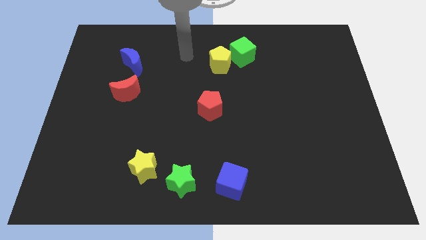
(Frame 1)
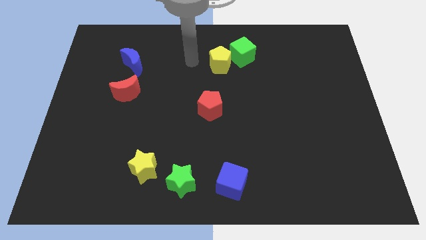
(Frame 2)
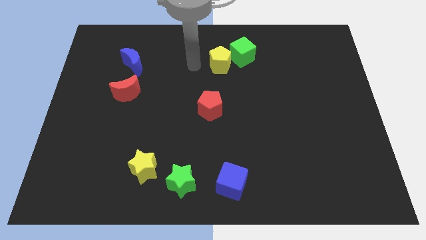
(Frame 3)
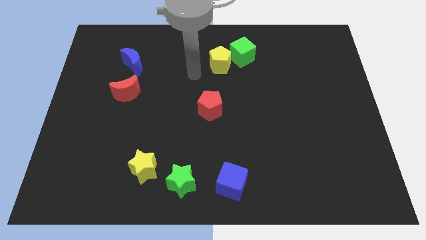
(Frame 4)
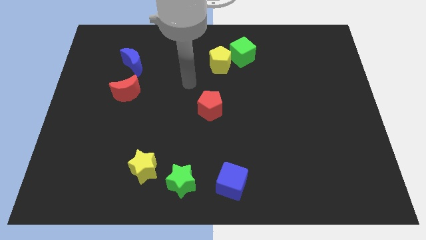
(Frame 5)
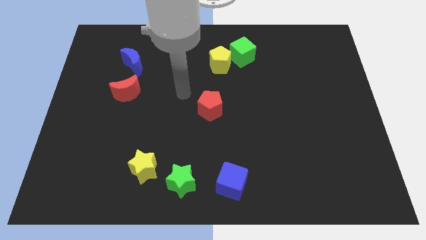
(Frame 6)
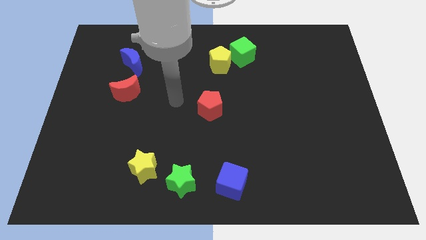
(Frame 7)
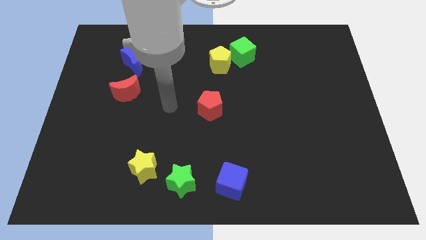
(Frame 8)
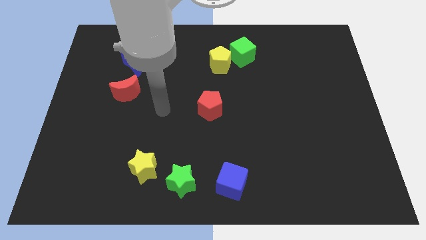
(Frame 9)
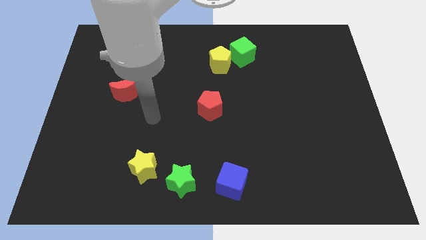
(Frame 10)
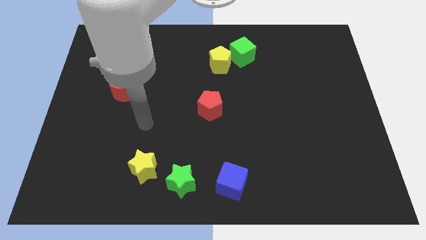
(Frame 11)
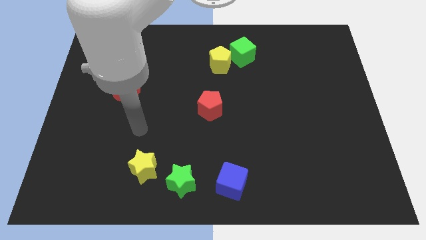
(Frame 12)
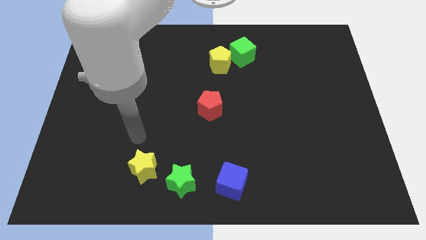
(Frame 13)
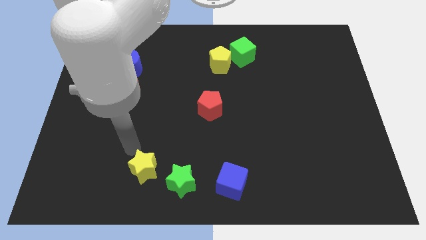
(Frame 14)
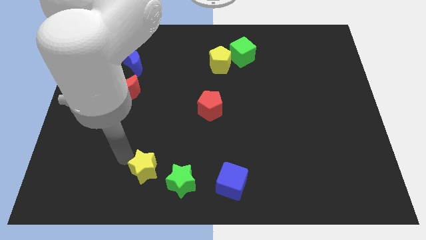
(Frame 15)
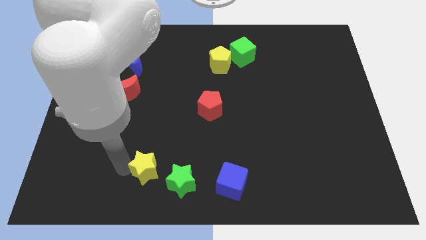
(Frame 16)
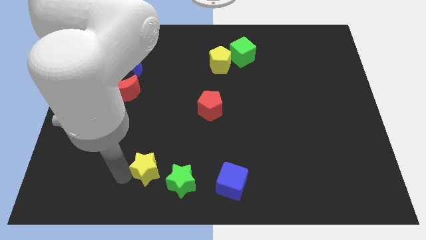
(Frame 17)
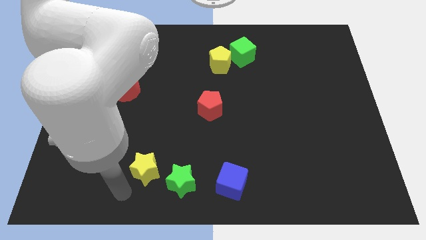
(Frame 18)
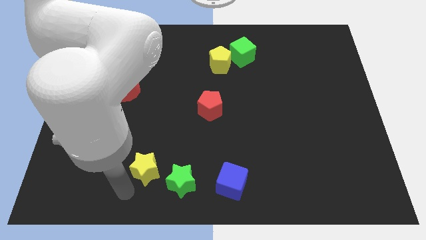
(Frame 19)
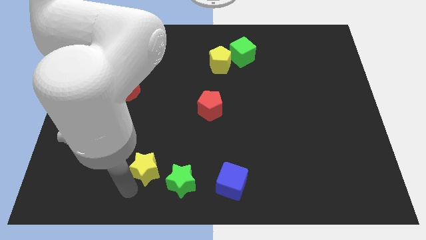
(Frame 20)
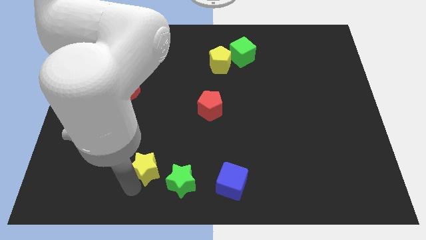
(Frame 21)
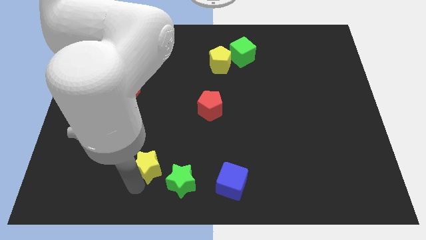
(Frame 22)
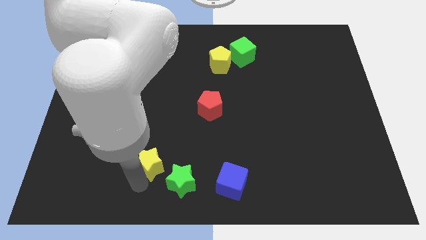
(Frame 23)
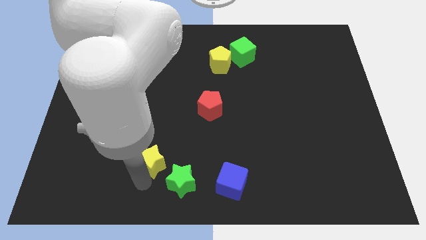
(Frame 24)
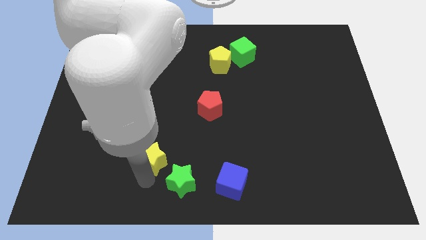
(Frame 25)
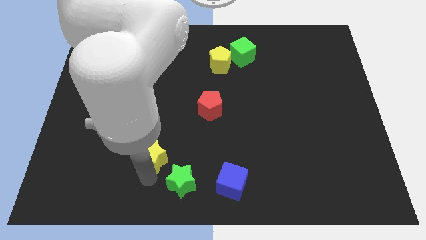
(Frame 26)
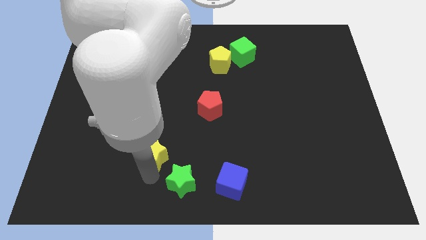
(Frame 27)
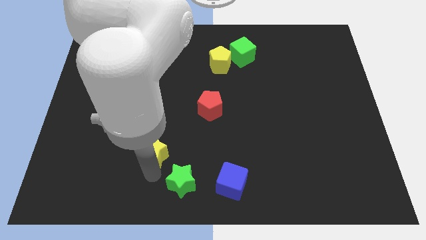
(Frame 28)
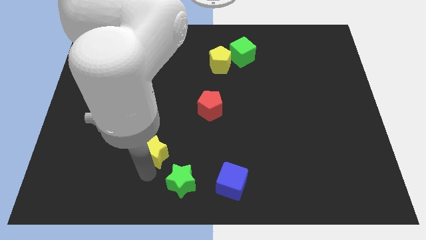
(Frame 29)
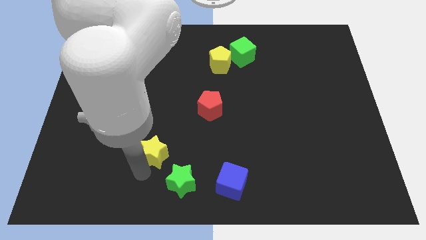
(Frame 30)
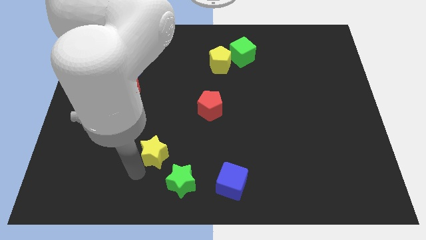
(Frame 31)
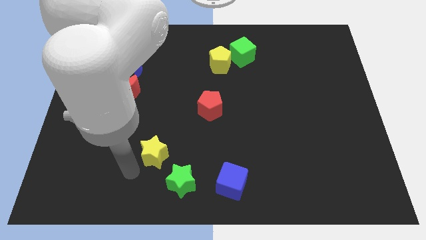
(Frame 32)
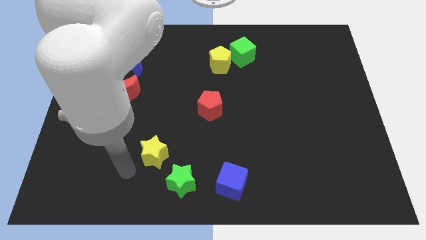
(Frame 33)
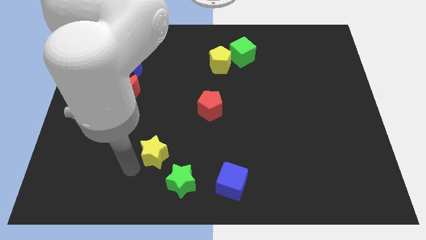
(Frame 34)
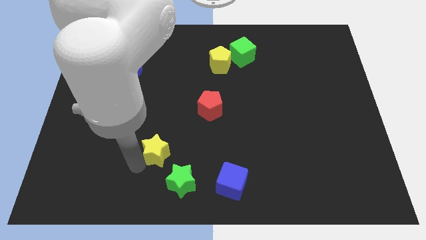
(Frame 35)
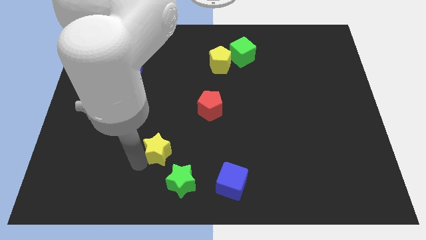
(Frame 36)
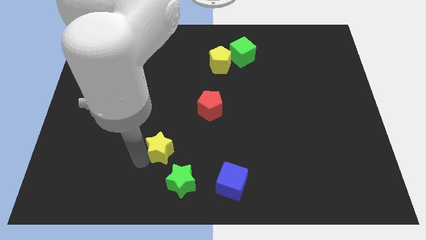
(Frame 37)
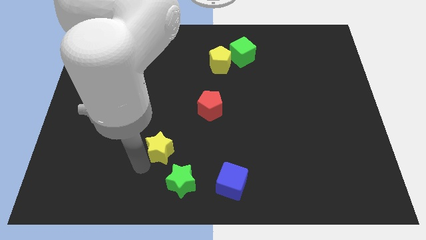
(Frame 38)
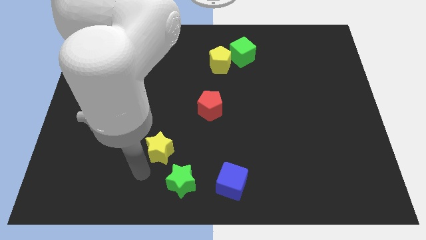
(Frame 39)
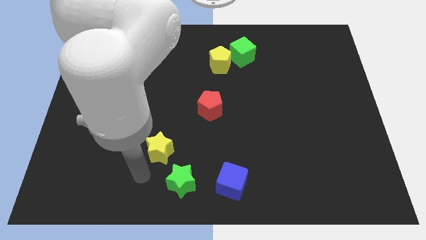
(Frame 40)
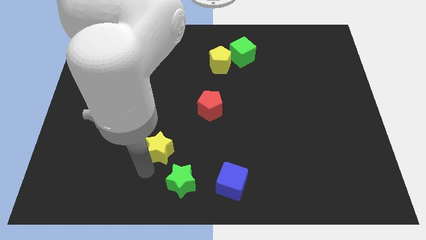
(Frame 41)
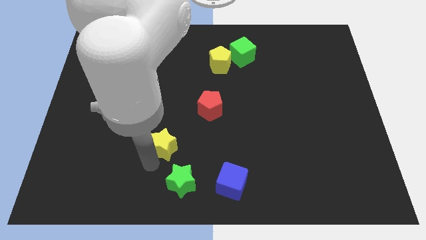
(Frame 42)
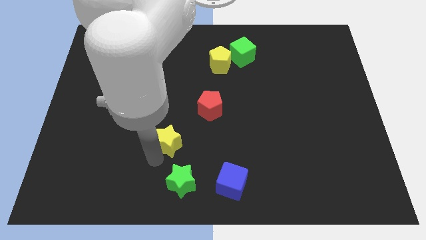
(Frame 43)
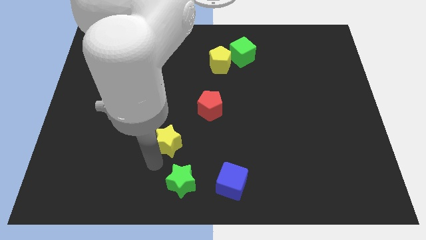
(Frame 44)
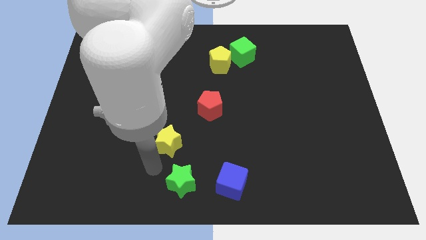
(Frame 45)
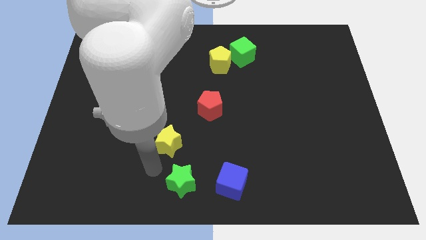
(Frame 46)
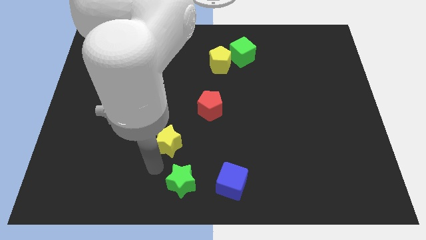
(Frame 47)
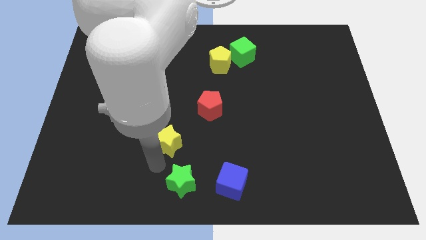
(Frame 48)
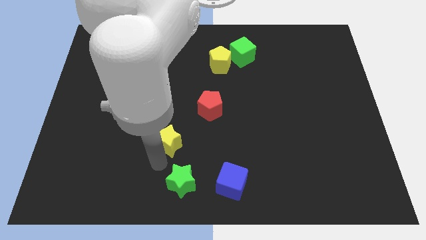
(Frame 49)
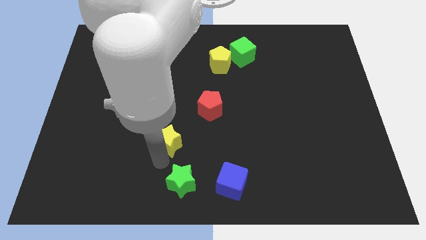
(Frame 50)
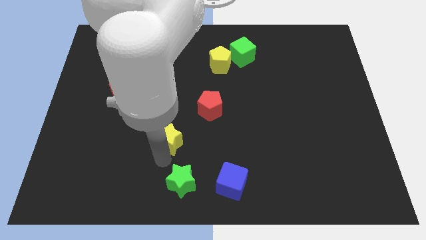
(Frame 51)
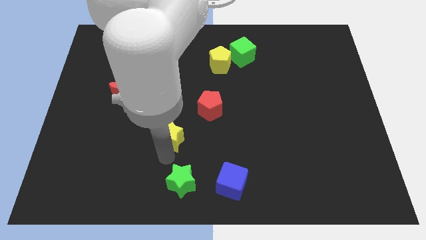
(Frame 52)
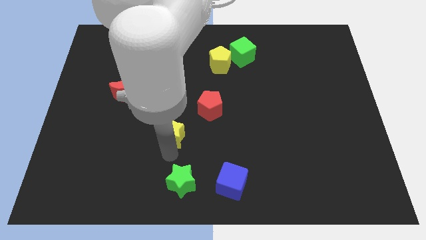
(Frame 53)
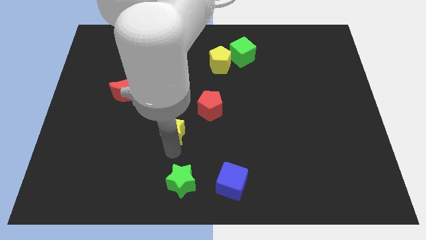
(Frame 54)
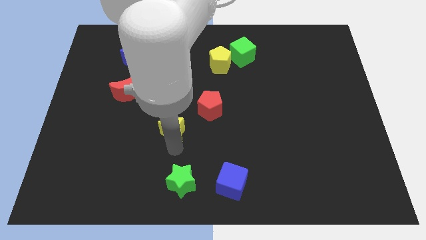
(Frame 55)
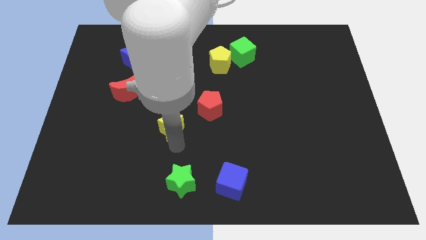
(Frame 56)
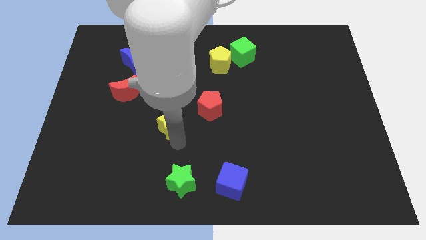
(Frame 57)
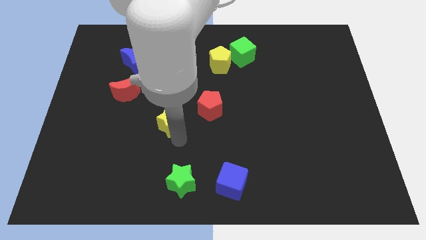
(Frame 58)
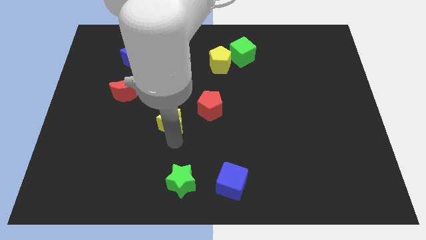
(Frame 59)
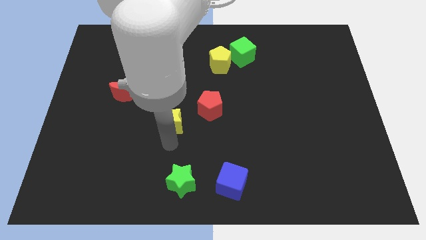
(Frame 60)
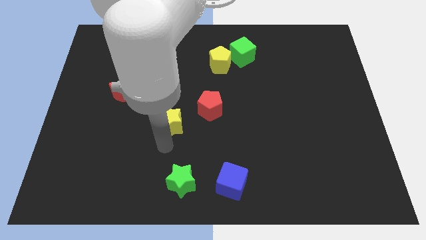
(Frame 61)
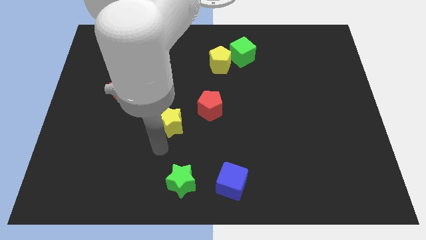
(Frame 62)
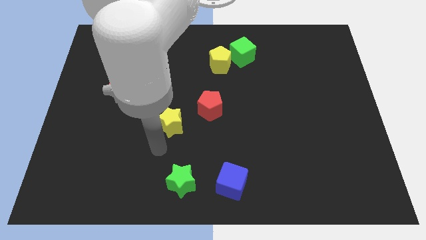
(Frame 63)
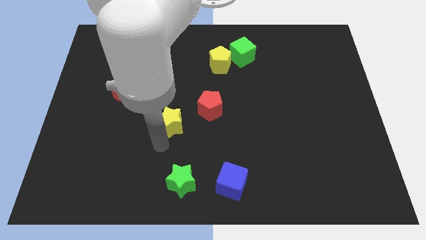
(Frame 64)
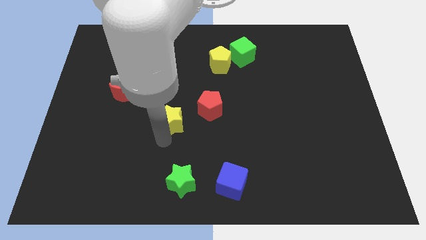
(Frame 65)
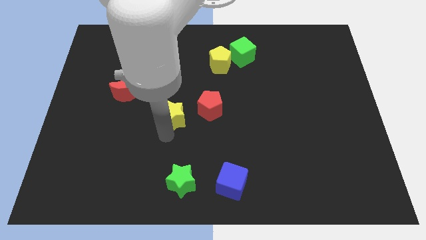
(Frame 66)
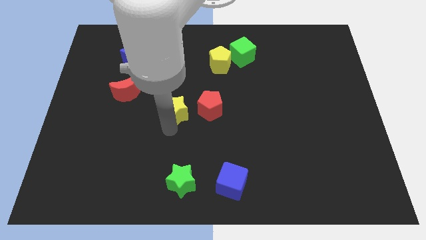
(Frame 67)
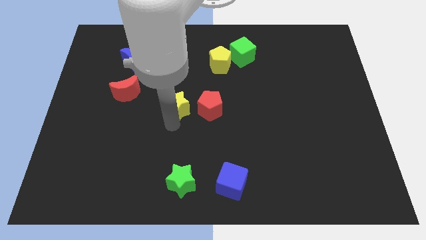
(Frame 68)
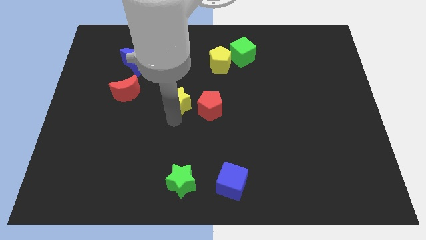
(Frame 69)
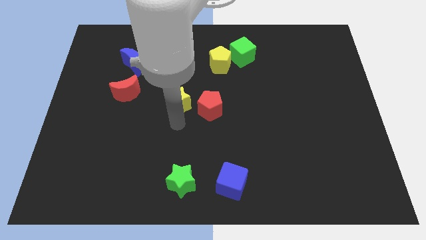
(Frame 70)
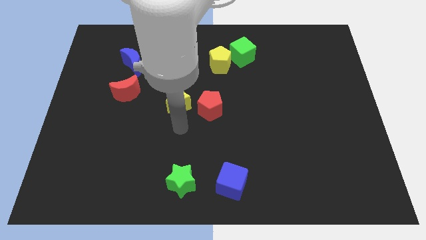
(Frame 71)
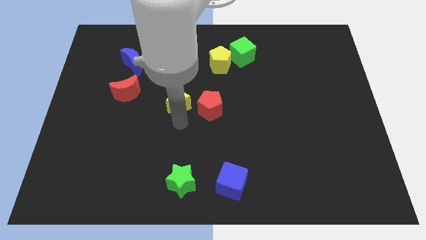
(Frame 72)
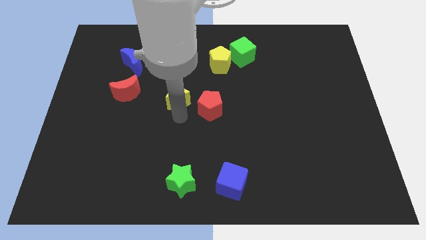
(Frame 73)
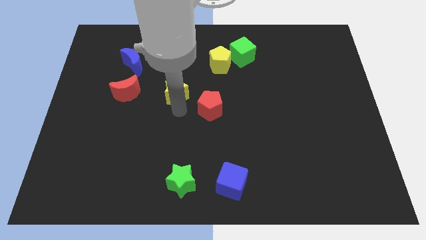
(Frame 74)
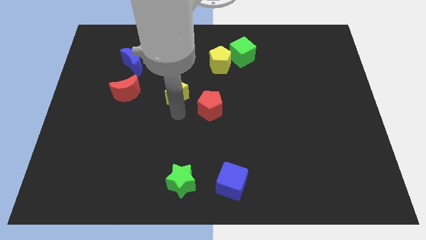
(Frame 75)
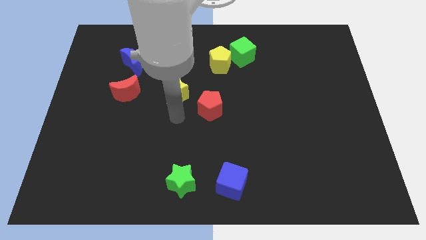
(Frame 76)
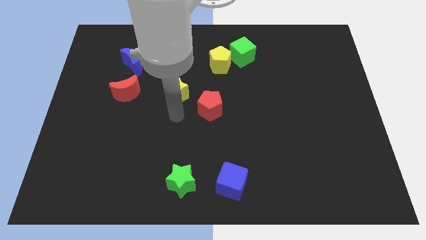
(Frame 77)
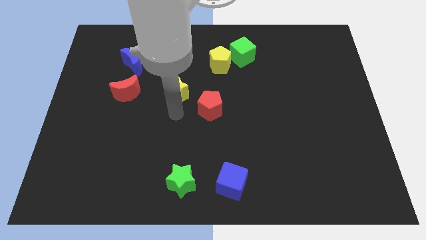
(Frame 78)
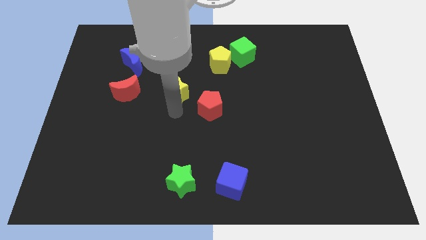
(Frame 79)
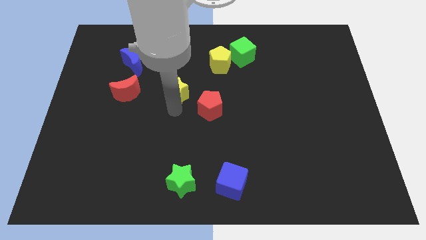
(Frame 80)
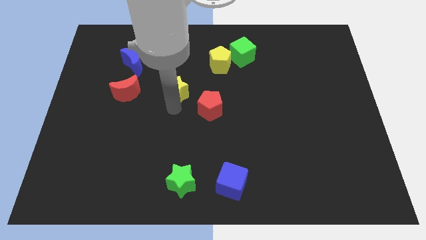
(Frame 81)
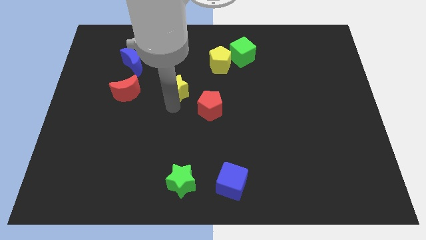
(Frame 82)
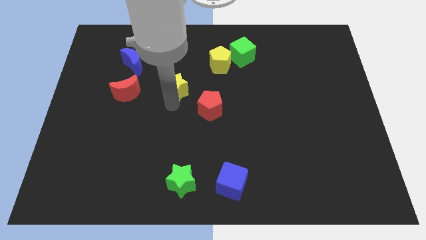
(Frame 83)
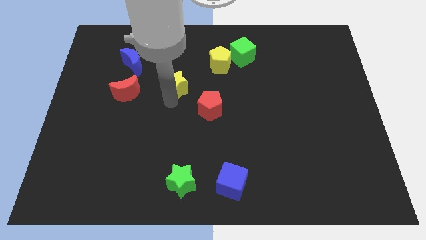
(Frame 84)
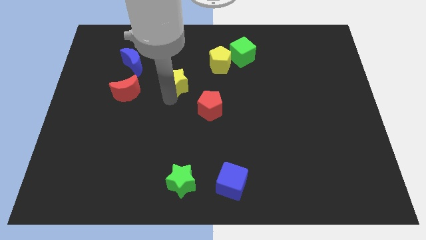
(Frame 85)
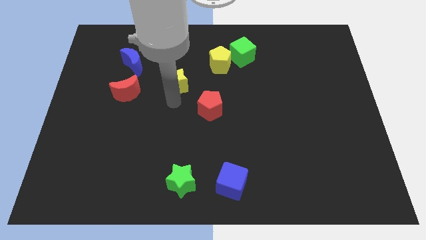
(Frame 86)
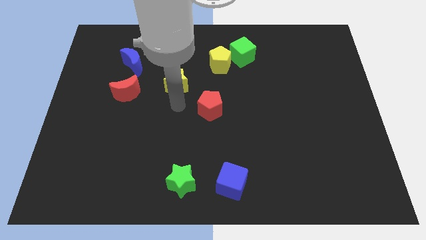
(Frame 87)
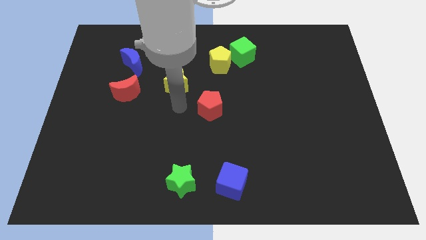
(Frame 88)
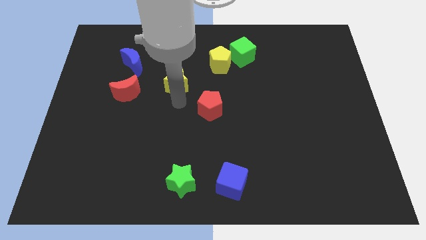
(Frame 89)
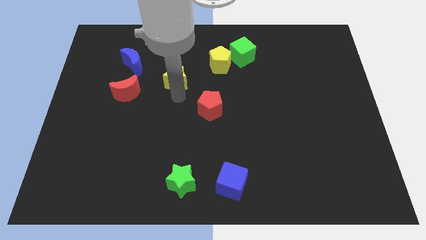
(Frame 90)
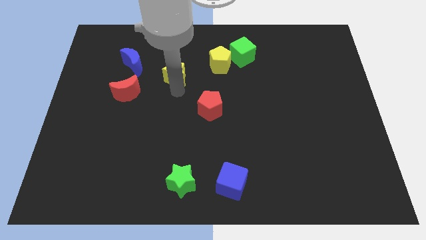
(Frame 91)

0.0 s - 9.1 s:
slide the yellow star right of the blue moon
